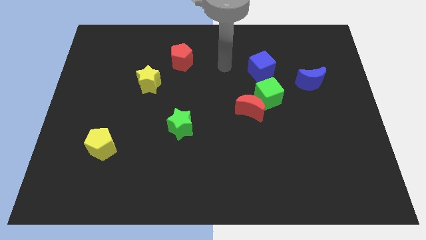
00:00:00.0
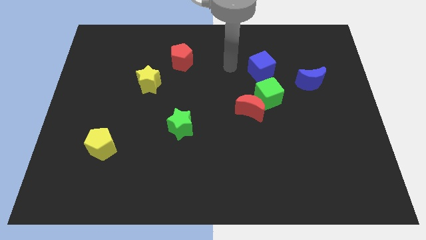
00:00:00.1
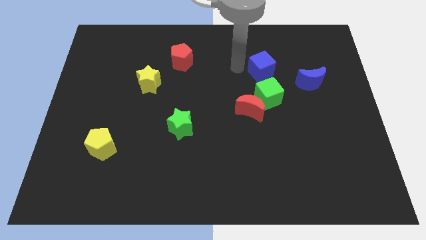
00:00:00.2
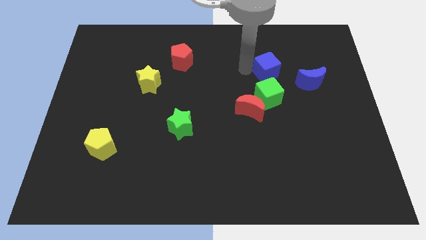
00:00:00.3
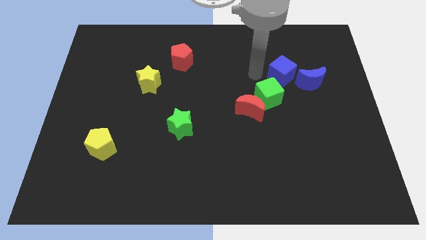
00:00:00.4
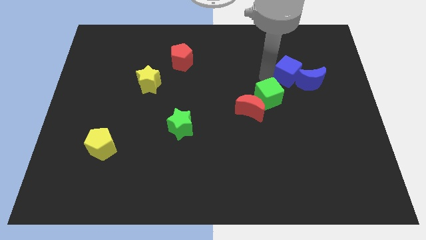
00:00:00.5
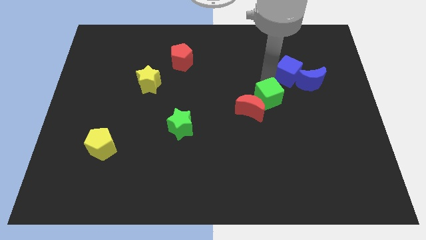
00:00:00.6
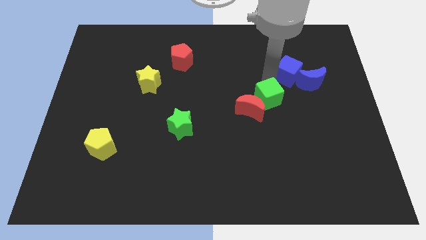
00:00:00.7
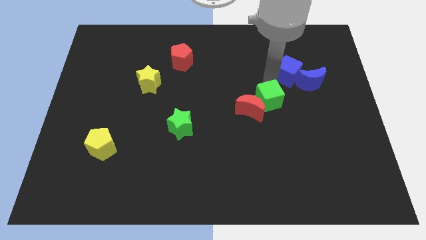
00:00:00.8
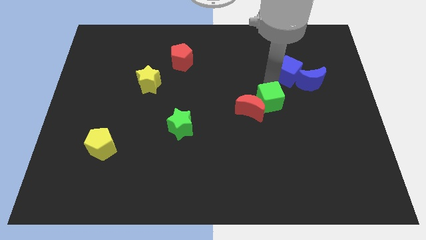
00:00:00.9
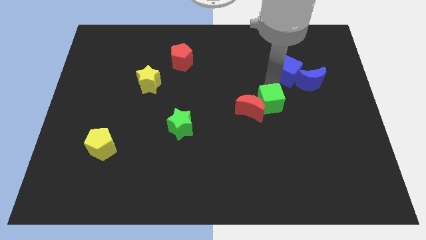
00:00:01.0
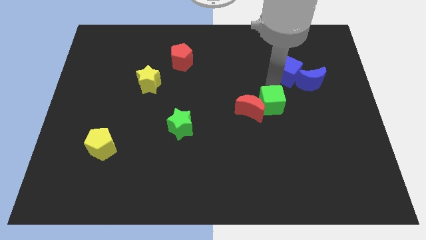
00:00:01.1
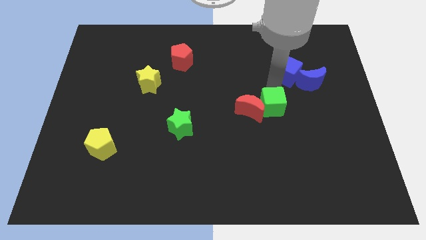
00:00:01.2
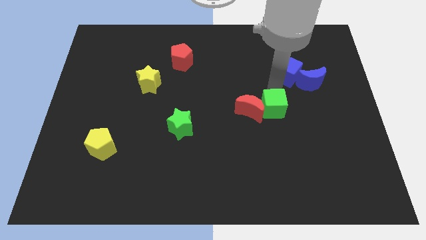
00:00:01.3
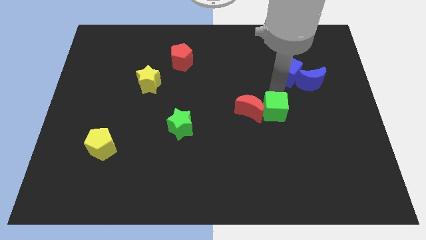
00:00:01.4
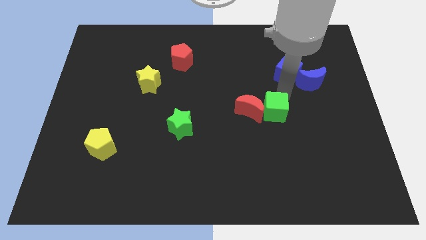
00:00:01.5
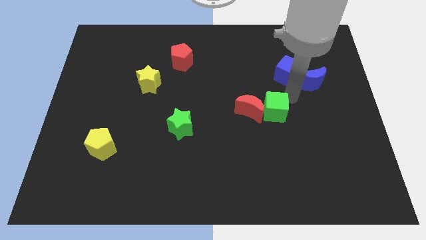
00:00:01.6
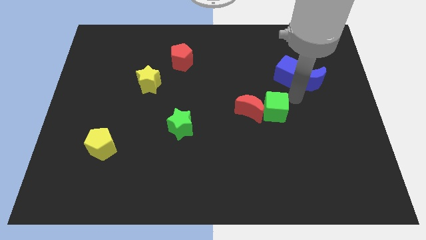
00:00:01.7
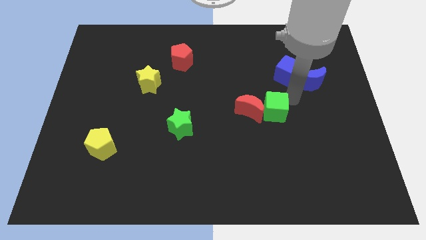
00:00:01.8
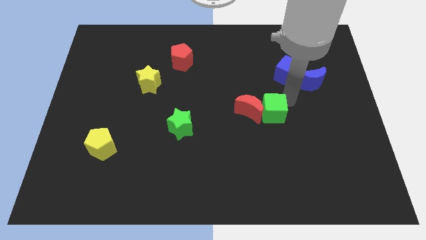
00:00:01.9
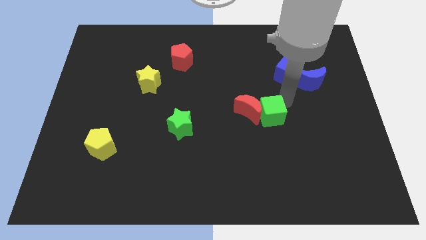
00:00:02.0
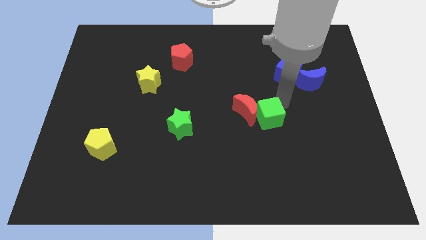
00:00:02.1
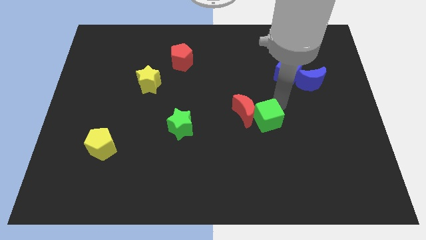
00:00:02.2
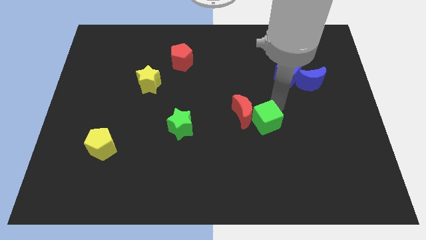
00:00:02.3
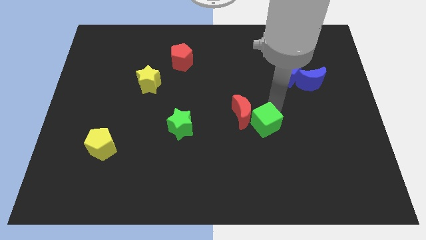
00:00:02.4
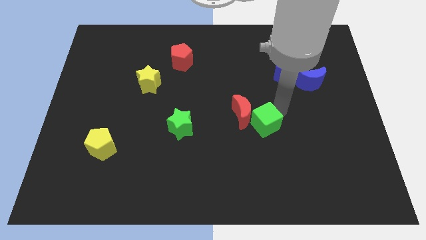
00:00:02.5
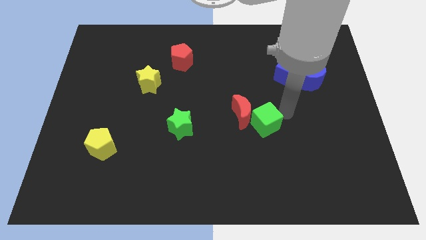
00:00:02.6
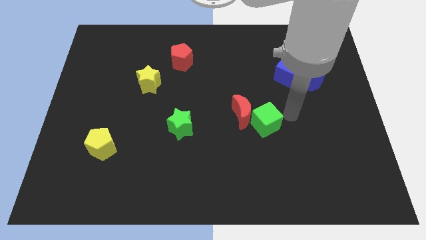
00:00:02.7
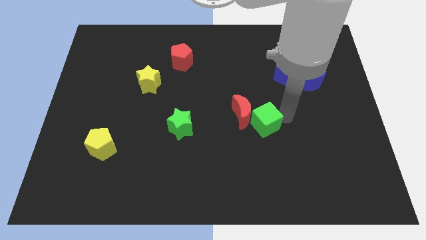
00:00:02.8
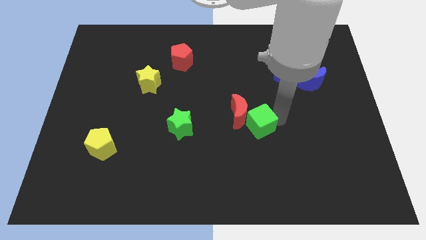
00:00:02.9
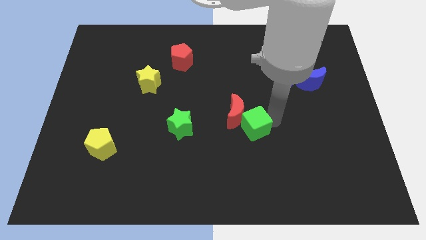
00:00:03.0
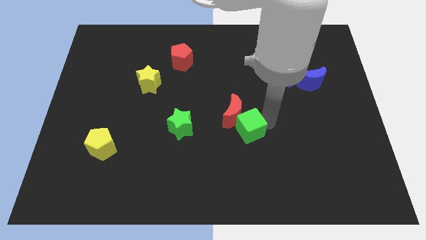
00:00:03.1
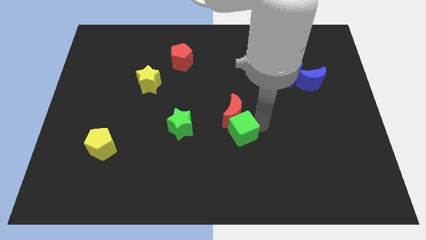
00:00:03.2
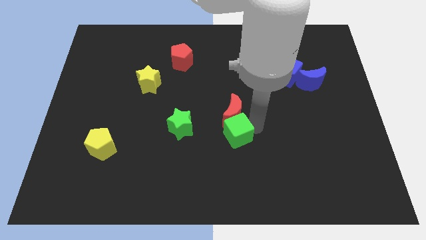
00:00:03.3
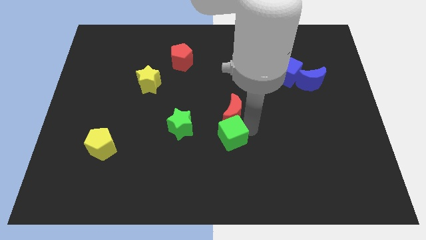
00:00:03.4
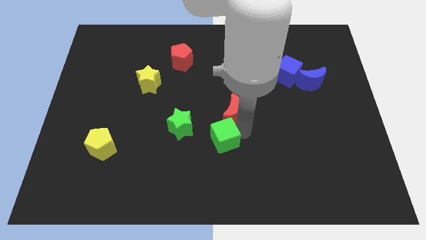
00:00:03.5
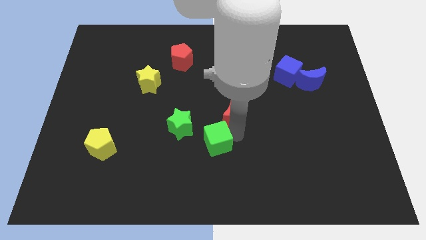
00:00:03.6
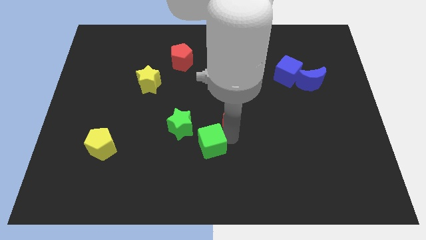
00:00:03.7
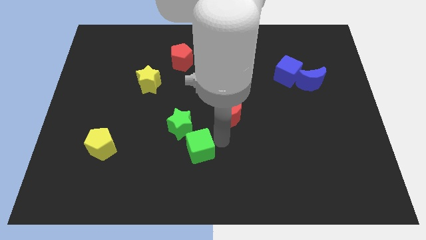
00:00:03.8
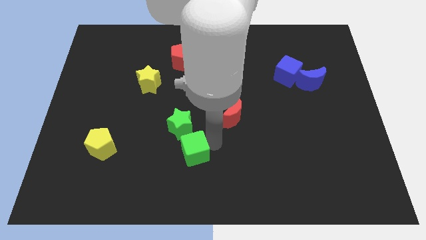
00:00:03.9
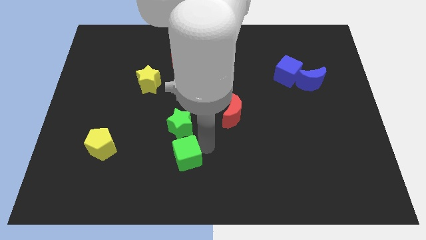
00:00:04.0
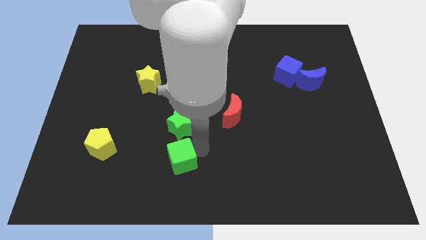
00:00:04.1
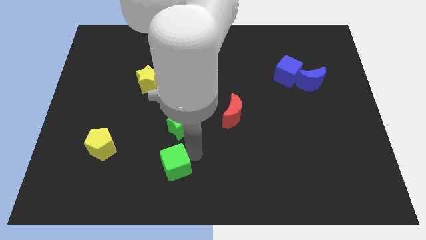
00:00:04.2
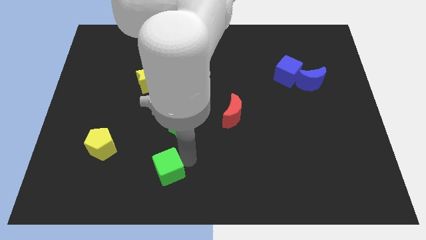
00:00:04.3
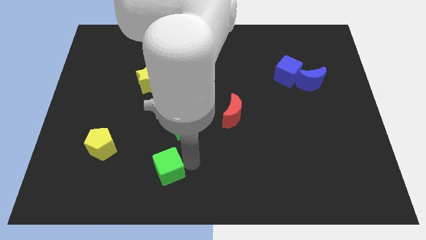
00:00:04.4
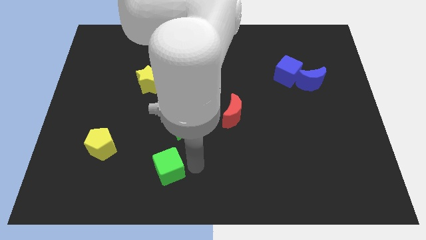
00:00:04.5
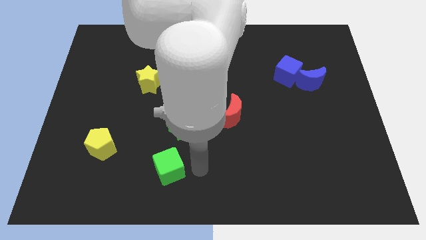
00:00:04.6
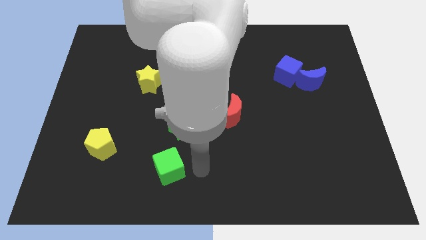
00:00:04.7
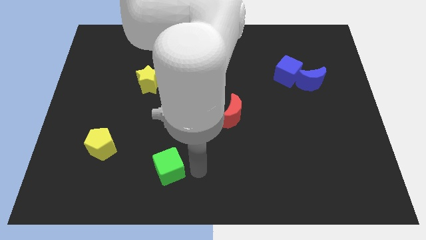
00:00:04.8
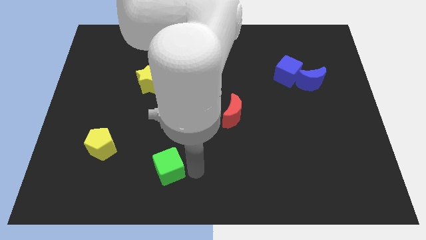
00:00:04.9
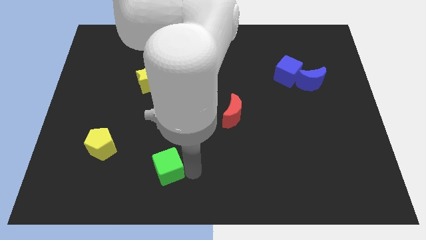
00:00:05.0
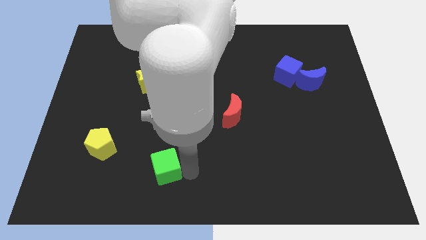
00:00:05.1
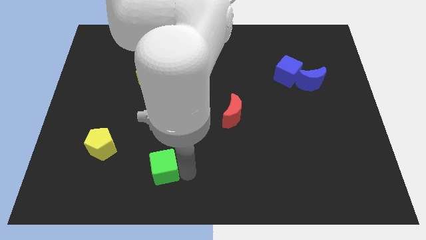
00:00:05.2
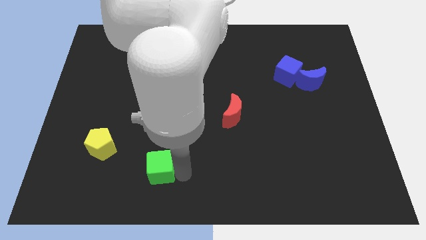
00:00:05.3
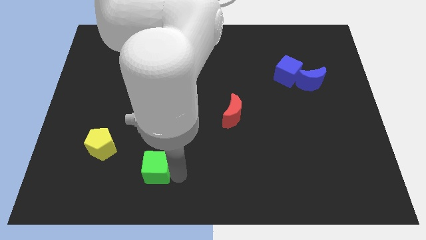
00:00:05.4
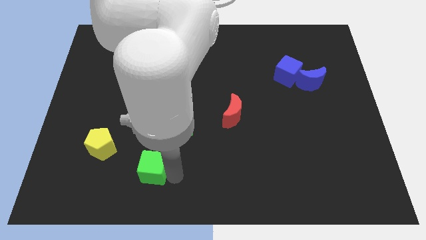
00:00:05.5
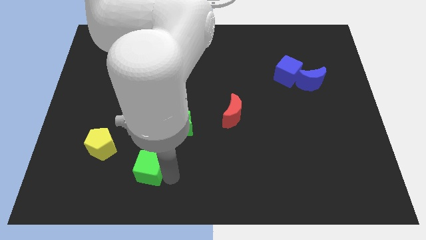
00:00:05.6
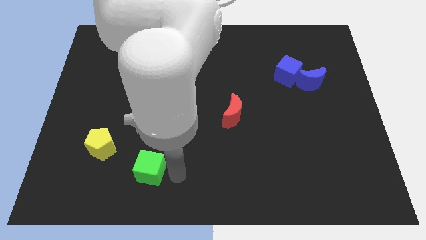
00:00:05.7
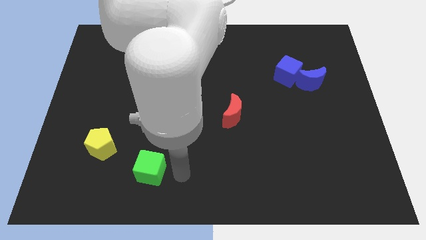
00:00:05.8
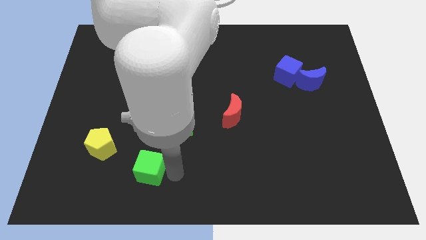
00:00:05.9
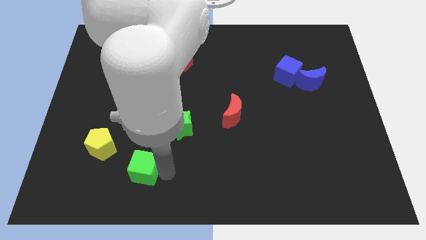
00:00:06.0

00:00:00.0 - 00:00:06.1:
slide the green cube to the bottom right side of the yellow pentagon

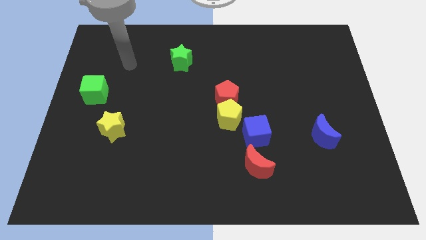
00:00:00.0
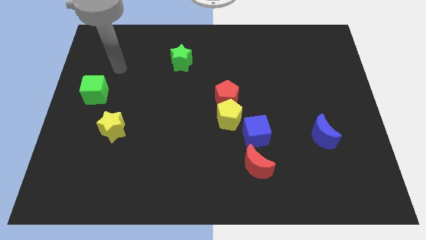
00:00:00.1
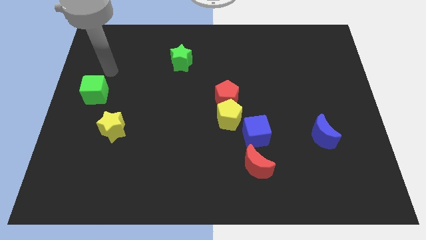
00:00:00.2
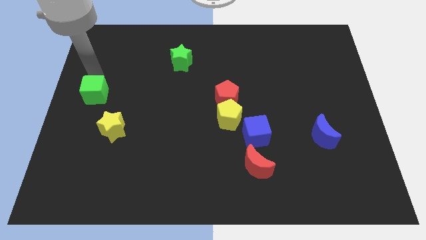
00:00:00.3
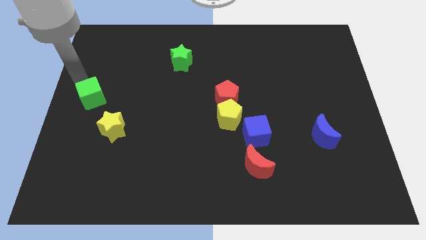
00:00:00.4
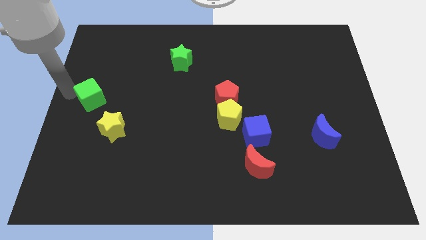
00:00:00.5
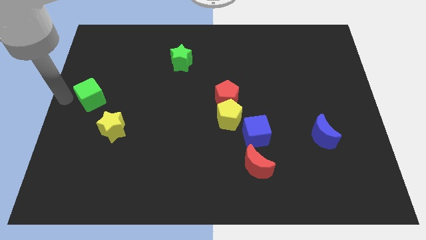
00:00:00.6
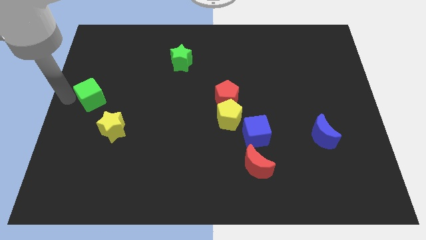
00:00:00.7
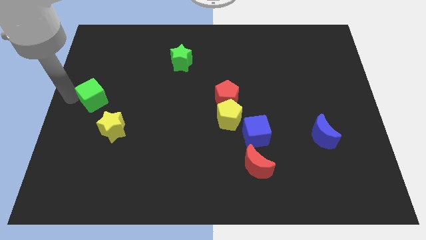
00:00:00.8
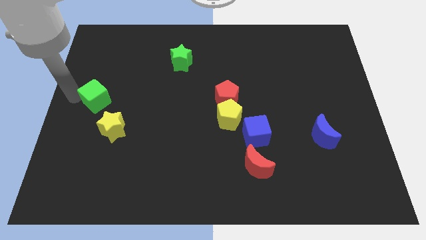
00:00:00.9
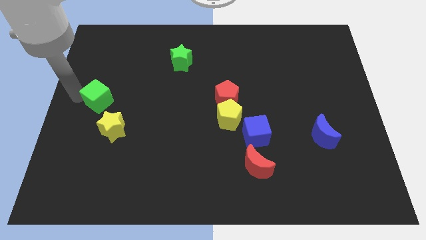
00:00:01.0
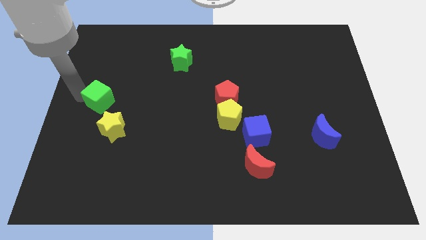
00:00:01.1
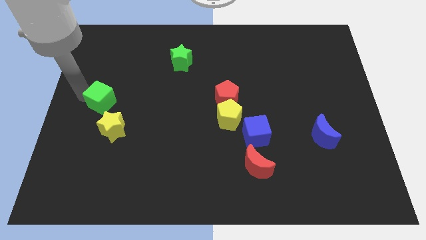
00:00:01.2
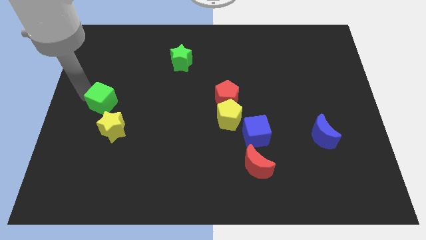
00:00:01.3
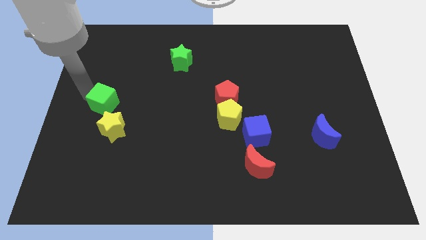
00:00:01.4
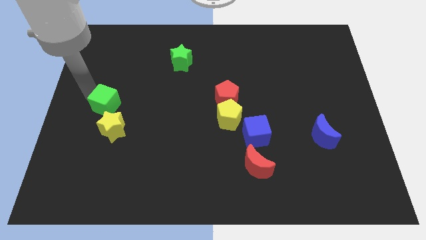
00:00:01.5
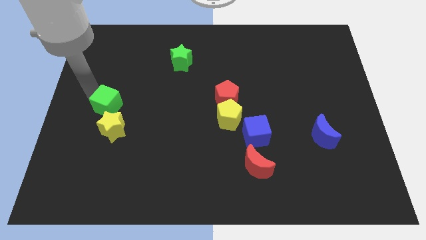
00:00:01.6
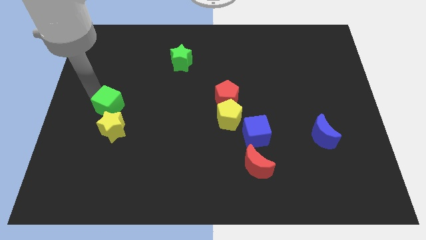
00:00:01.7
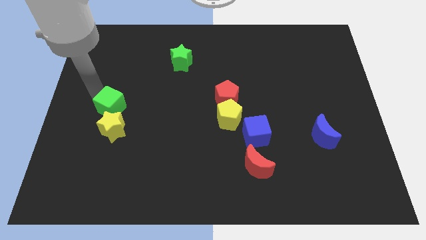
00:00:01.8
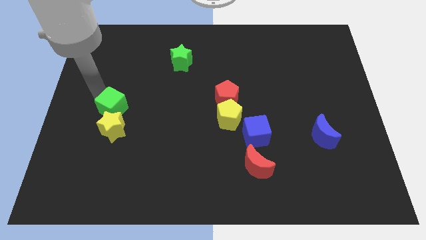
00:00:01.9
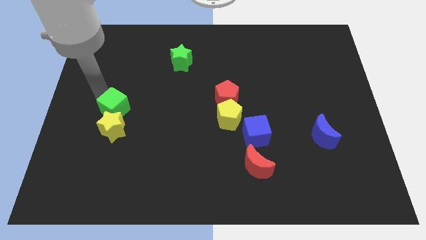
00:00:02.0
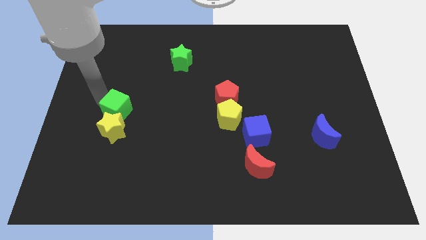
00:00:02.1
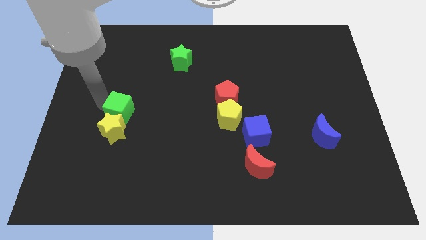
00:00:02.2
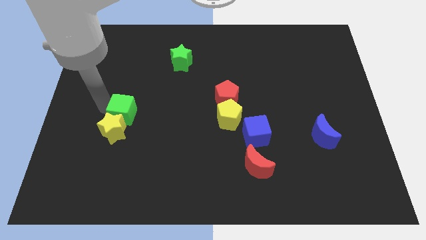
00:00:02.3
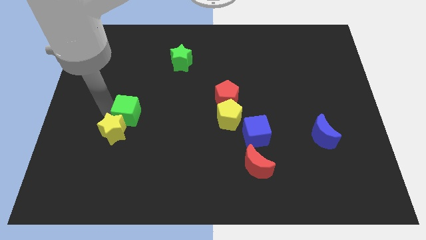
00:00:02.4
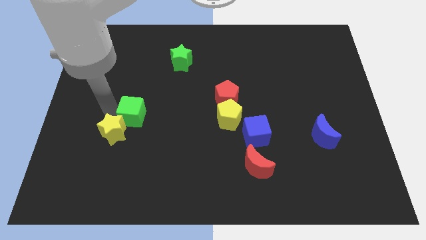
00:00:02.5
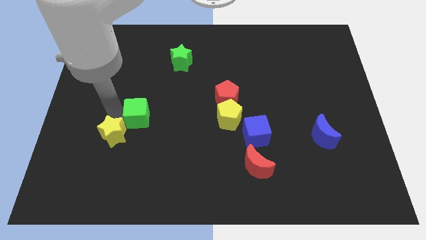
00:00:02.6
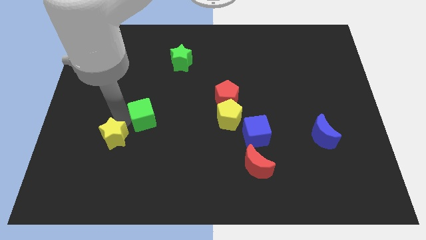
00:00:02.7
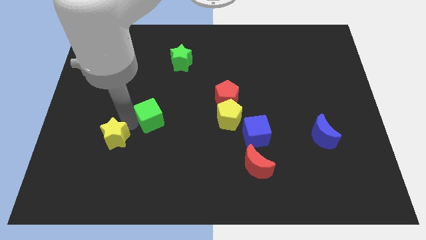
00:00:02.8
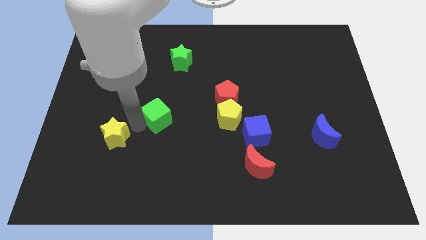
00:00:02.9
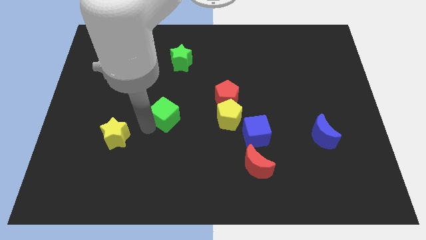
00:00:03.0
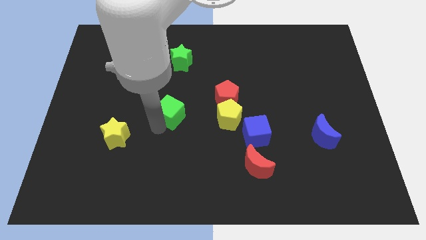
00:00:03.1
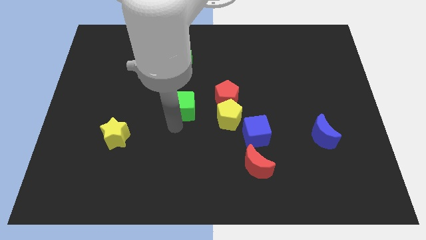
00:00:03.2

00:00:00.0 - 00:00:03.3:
slide the green cube to the bottom left side of the red pentagon
